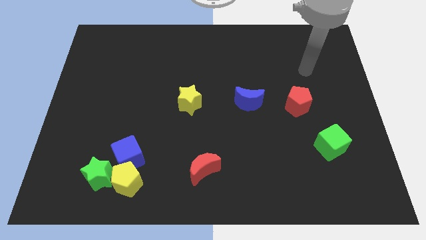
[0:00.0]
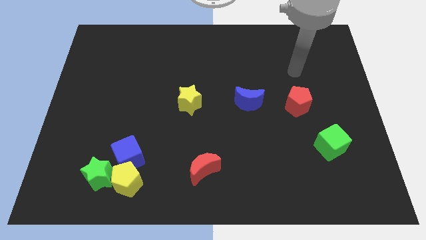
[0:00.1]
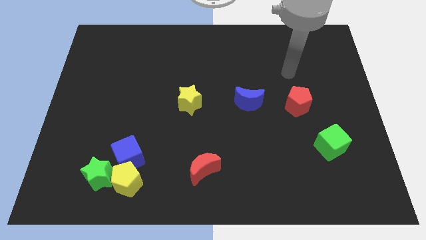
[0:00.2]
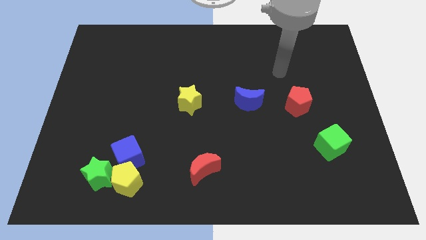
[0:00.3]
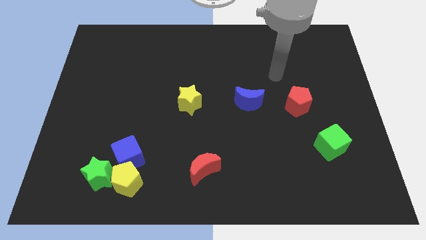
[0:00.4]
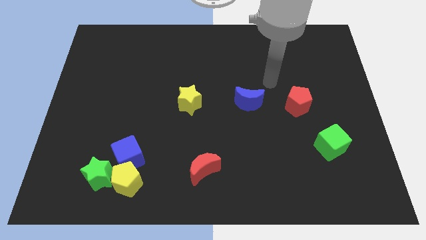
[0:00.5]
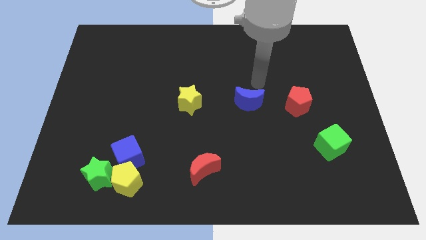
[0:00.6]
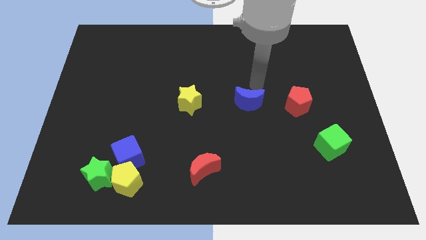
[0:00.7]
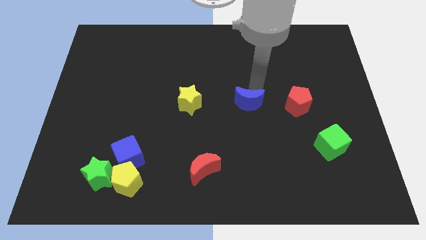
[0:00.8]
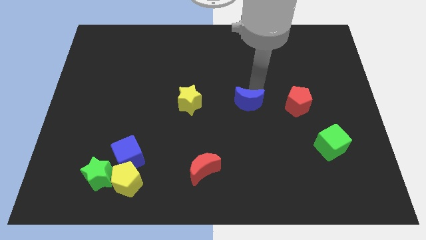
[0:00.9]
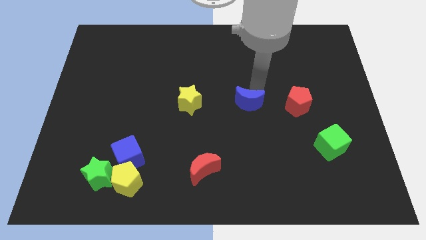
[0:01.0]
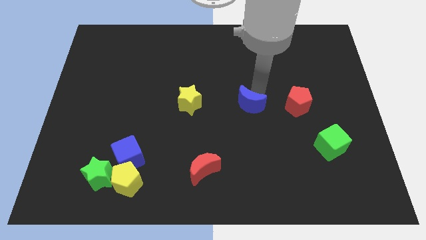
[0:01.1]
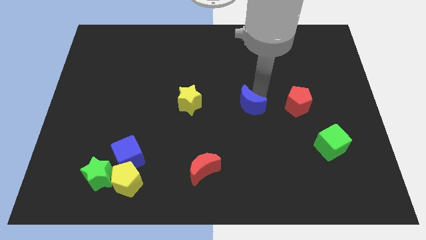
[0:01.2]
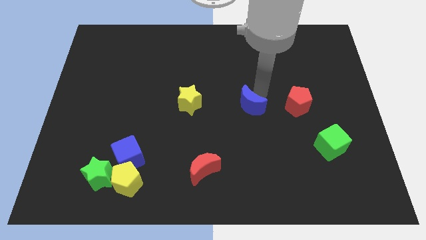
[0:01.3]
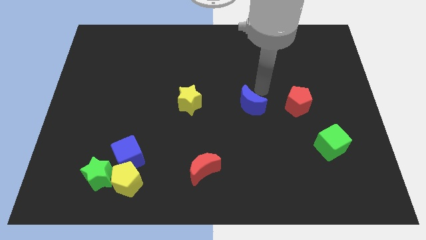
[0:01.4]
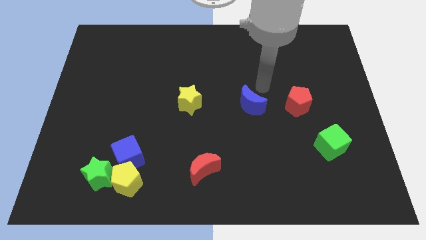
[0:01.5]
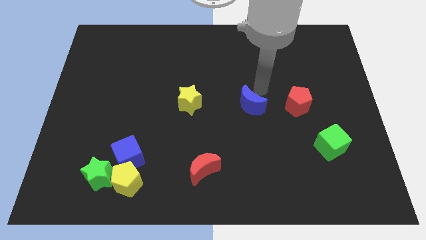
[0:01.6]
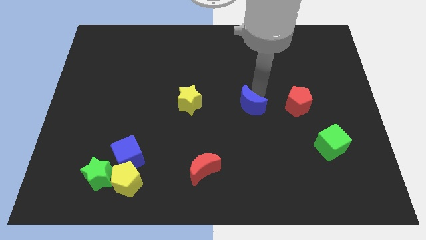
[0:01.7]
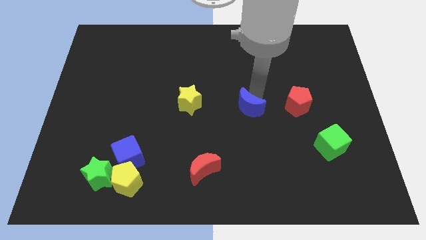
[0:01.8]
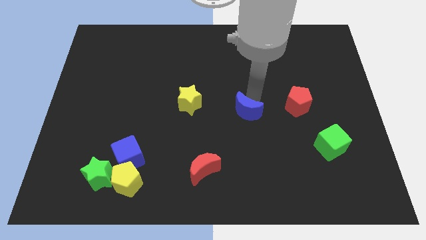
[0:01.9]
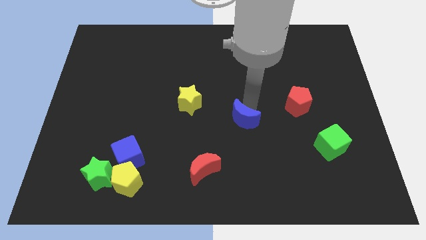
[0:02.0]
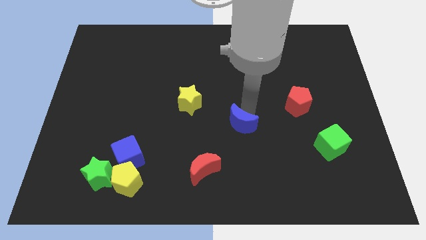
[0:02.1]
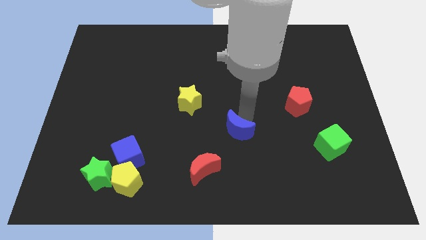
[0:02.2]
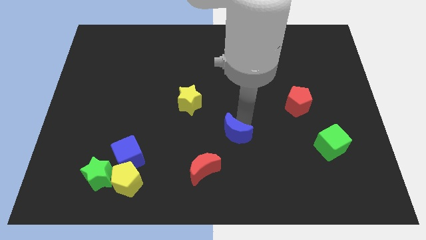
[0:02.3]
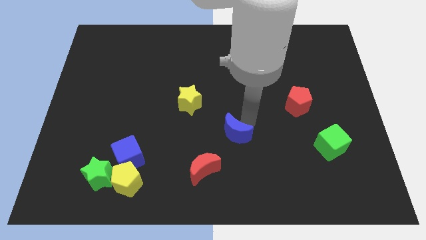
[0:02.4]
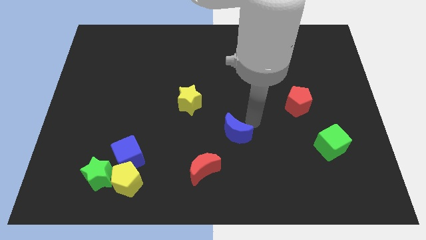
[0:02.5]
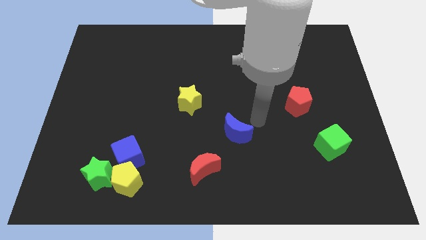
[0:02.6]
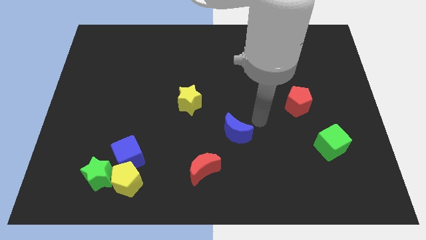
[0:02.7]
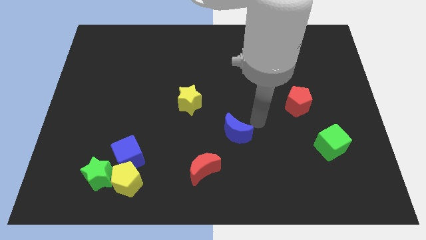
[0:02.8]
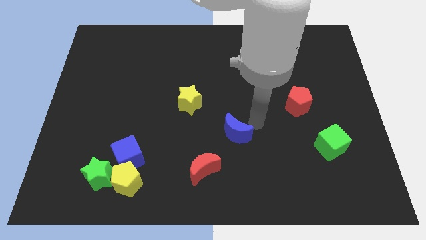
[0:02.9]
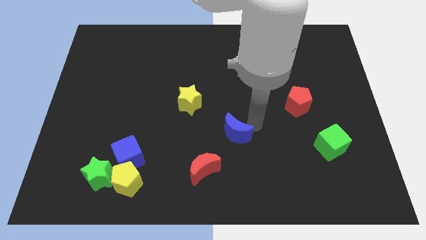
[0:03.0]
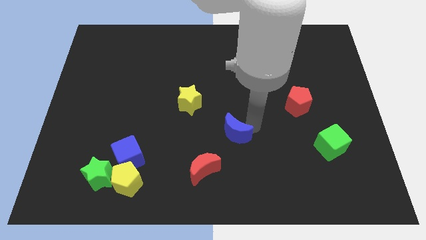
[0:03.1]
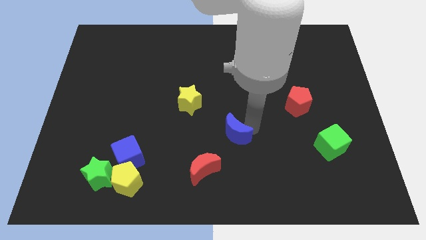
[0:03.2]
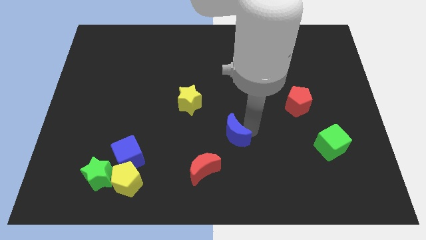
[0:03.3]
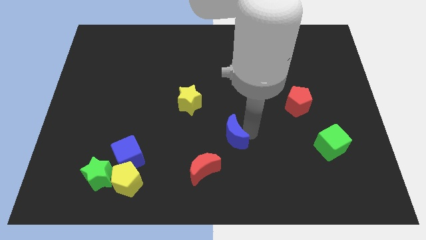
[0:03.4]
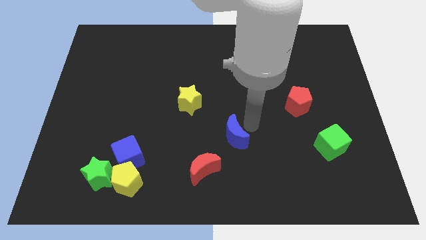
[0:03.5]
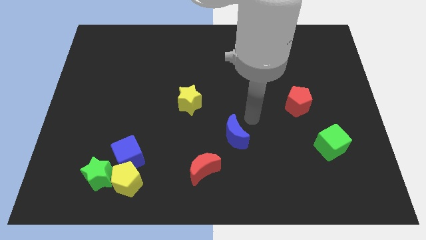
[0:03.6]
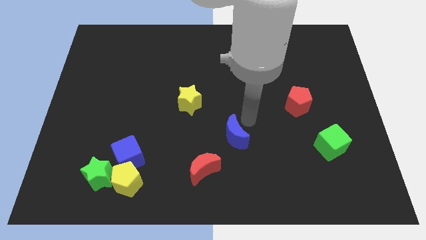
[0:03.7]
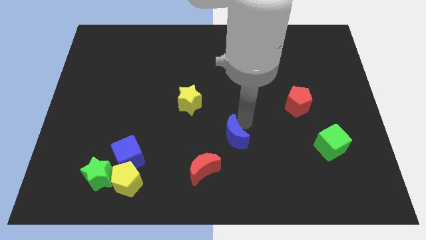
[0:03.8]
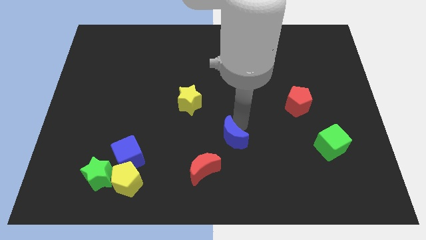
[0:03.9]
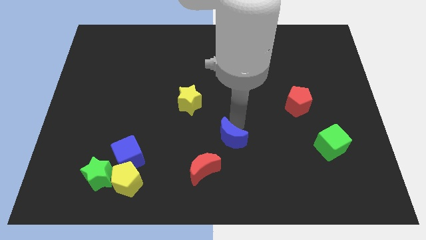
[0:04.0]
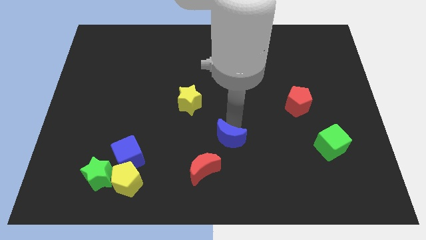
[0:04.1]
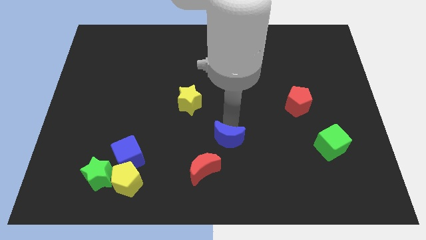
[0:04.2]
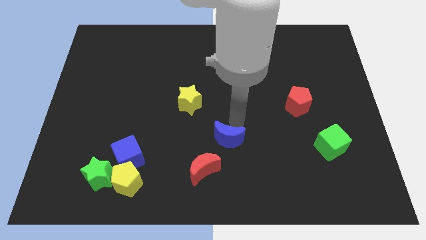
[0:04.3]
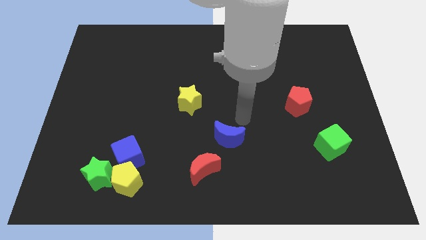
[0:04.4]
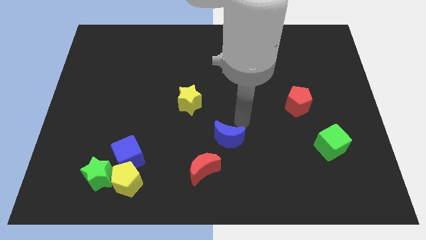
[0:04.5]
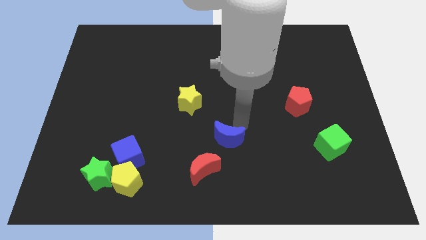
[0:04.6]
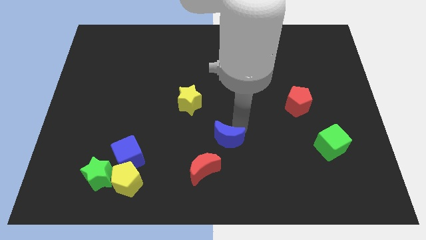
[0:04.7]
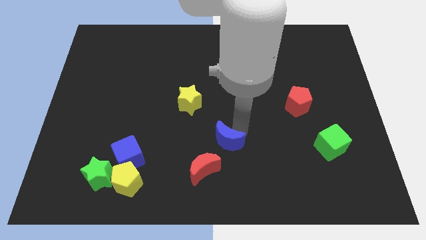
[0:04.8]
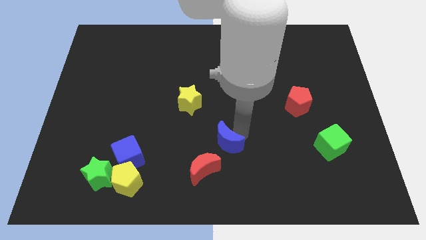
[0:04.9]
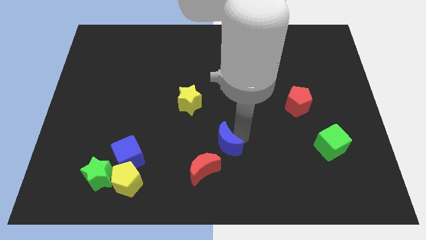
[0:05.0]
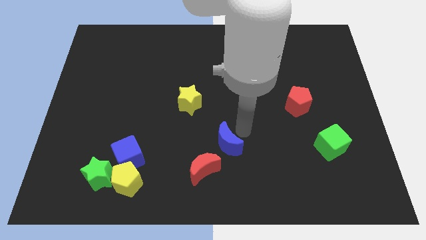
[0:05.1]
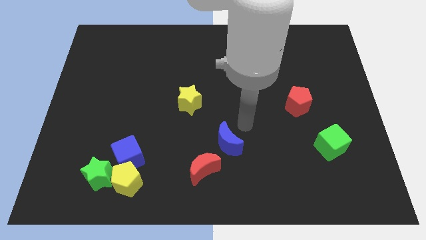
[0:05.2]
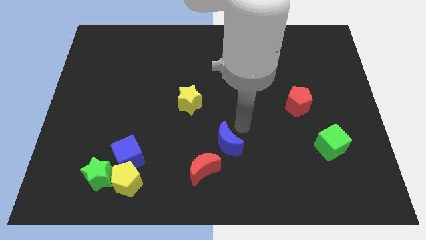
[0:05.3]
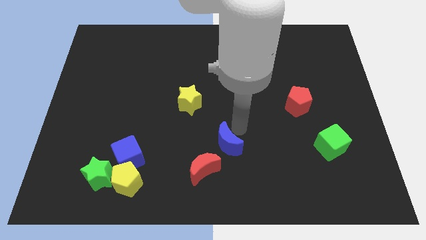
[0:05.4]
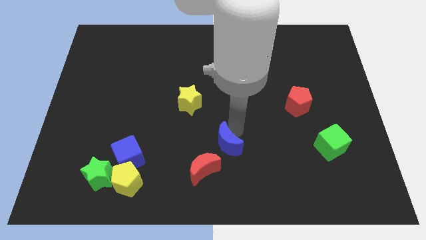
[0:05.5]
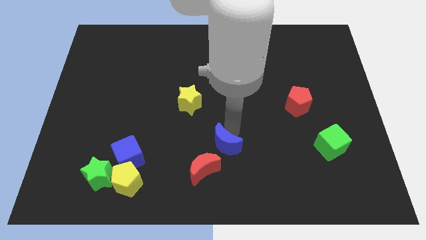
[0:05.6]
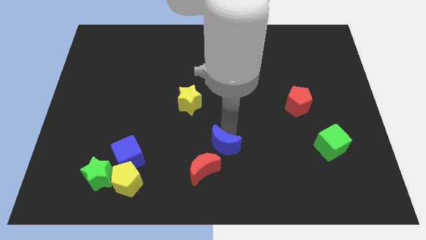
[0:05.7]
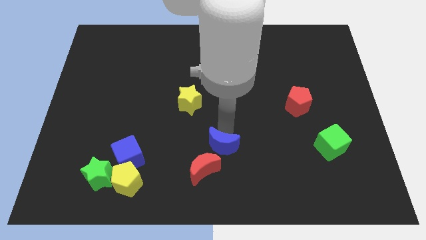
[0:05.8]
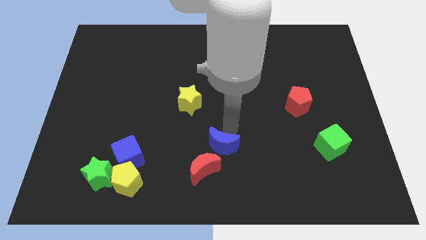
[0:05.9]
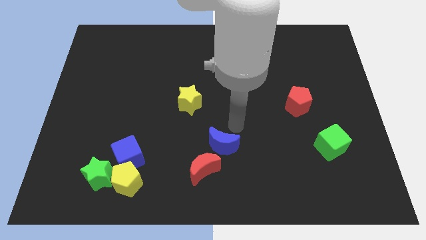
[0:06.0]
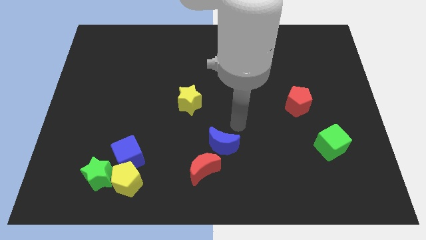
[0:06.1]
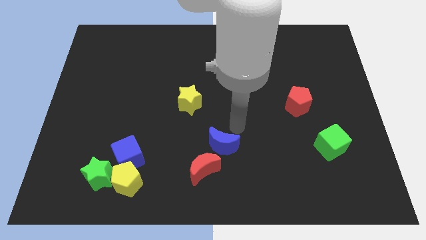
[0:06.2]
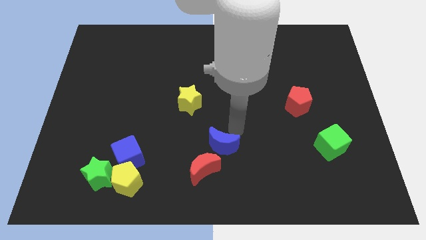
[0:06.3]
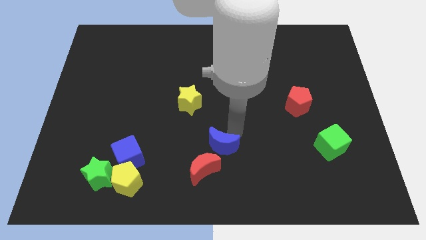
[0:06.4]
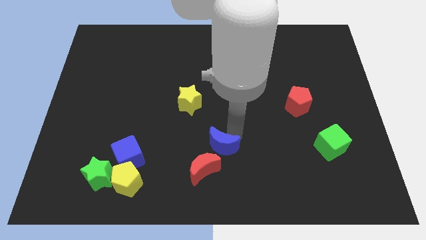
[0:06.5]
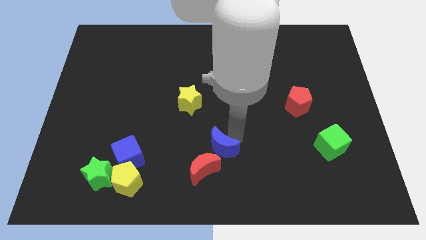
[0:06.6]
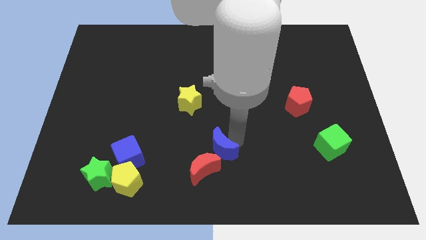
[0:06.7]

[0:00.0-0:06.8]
put the blue moon to the red moon
